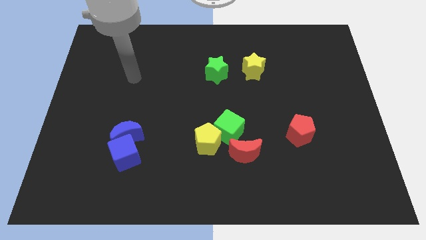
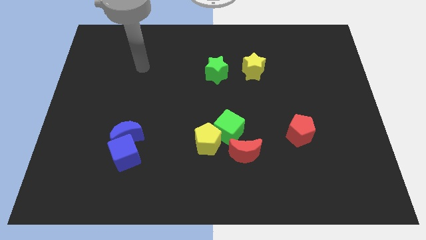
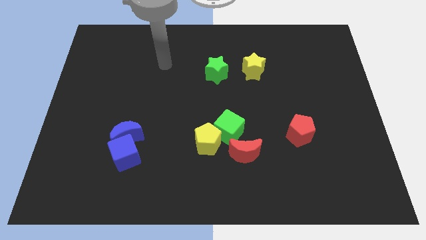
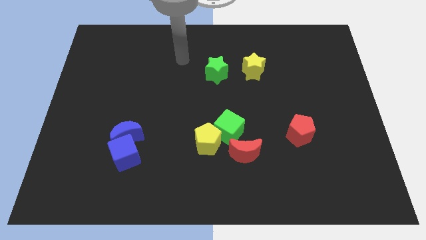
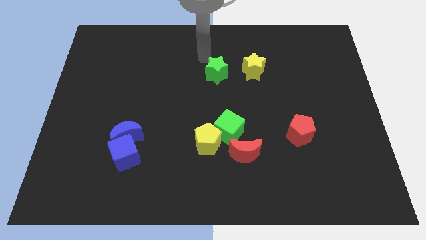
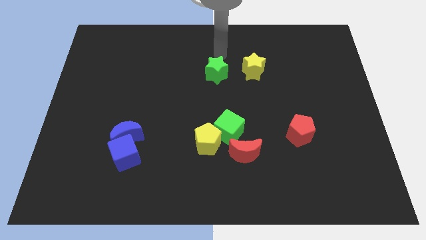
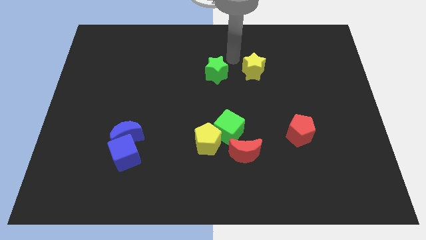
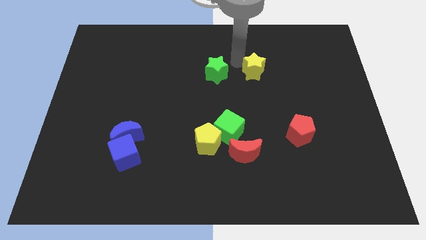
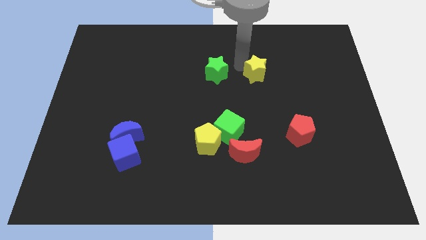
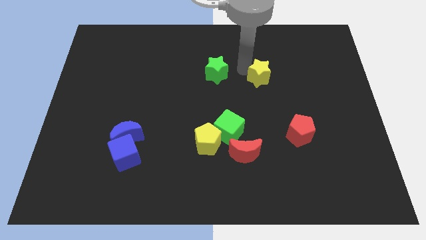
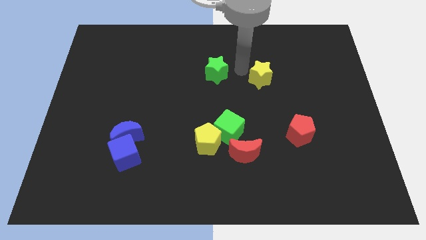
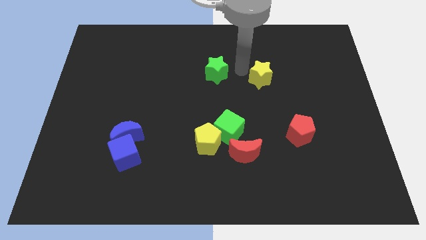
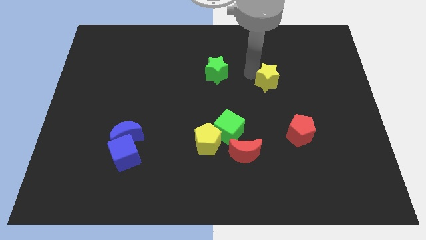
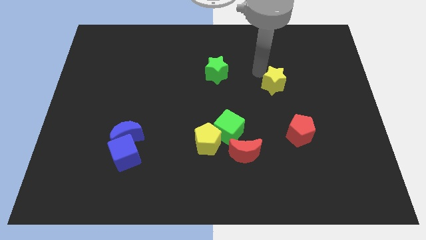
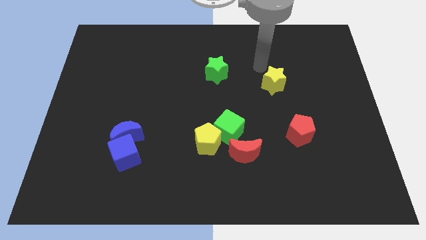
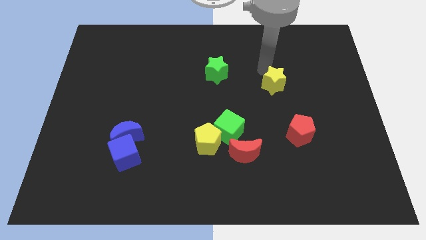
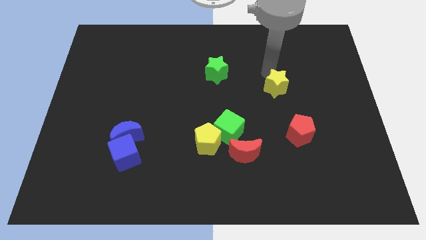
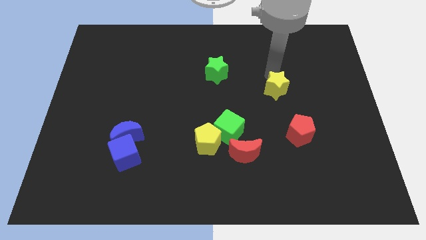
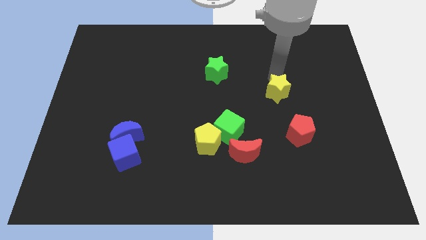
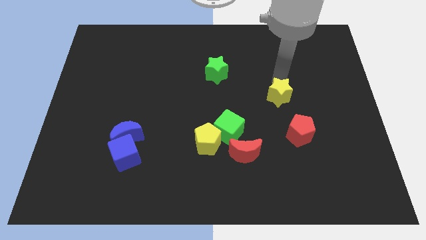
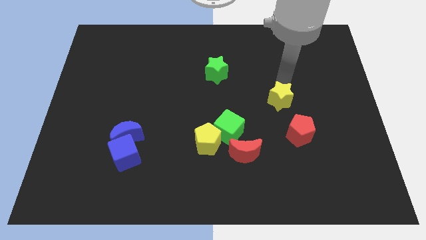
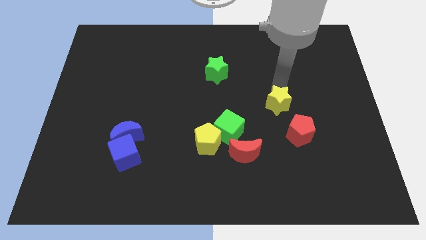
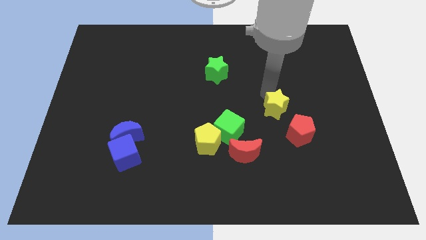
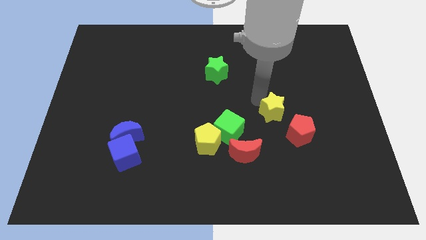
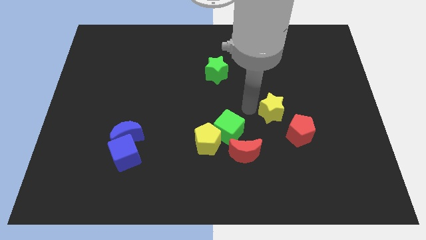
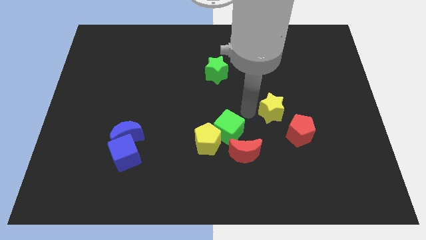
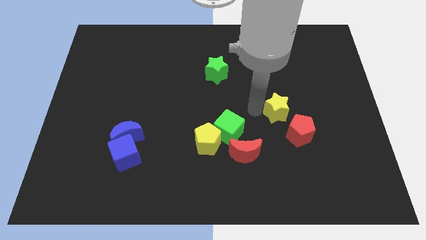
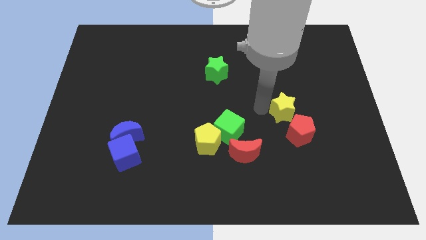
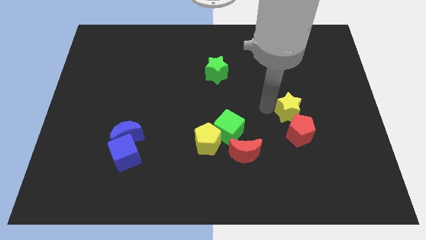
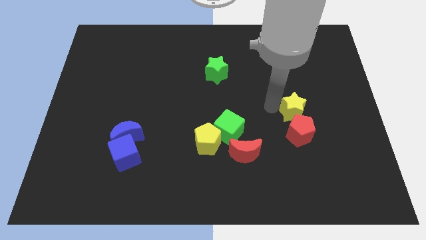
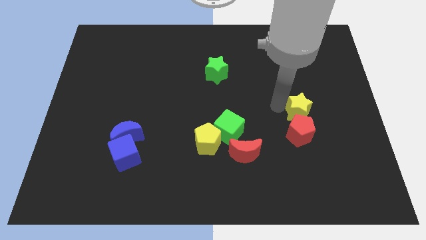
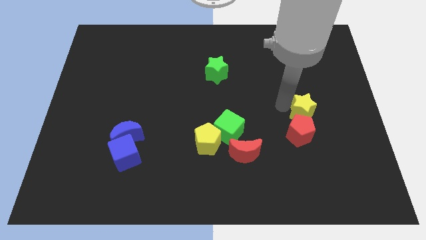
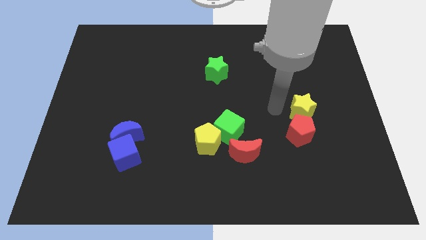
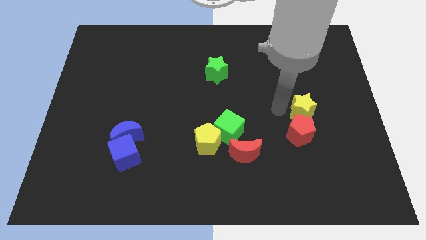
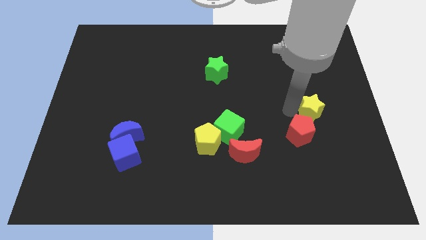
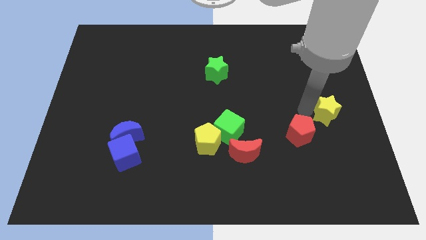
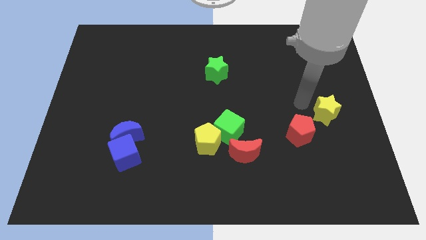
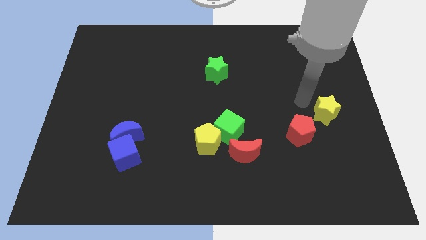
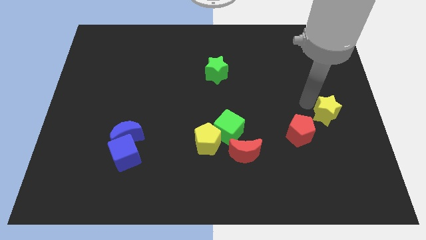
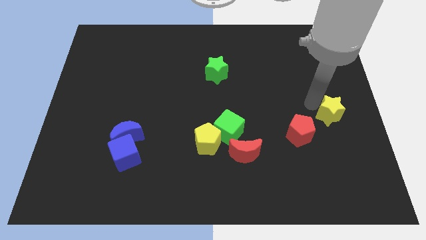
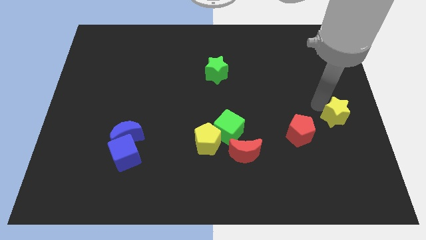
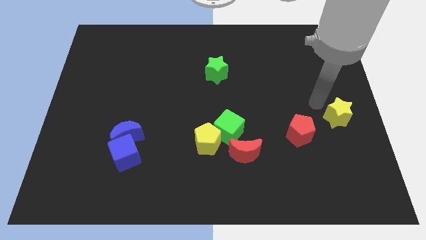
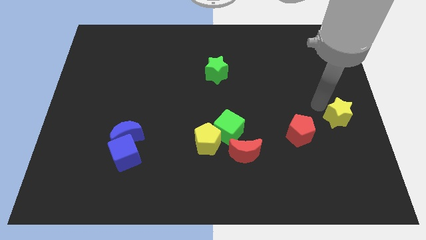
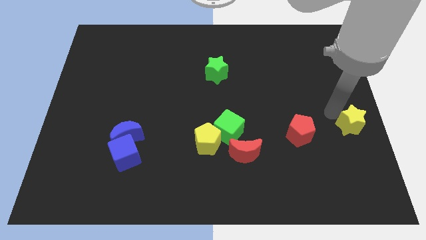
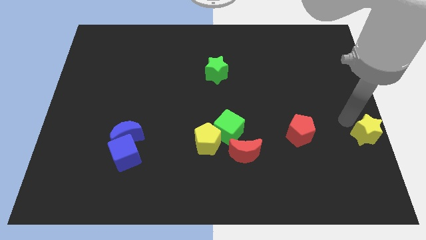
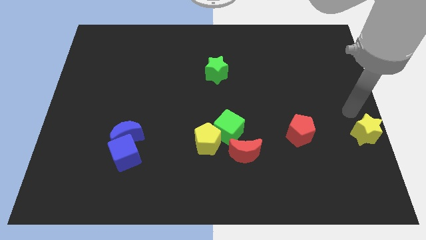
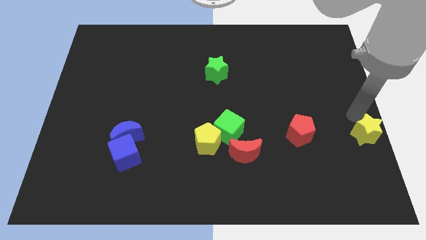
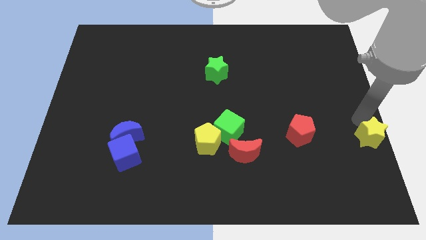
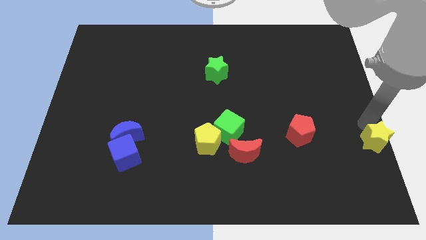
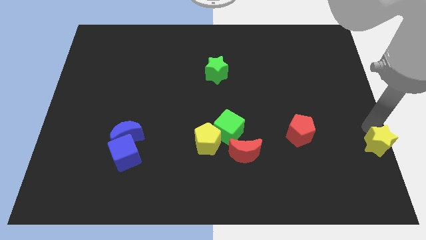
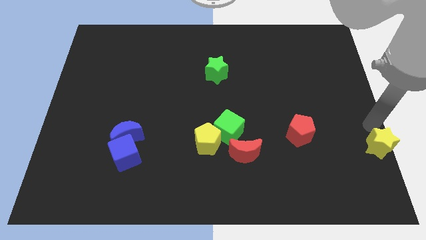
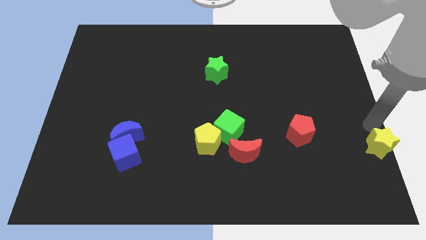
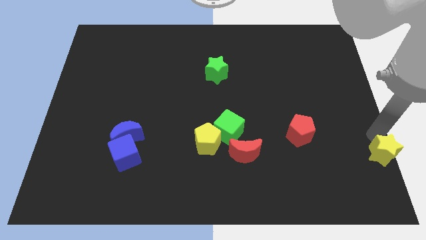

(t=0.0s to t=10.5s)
slide the yellow star to the bottom right corner

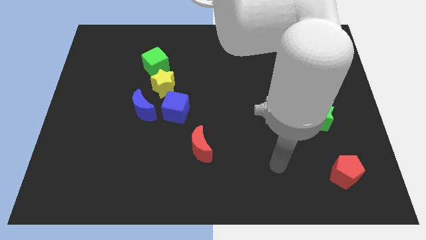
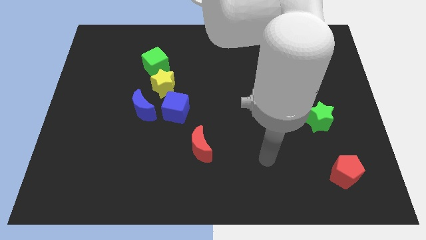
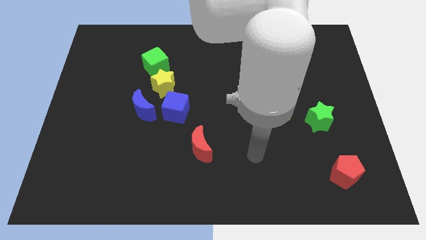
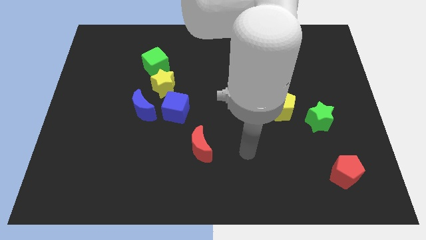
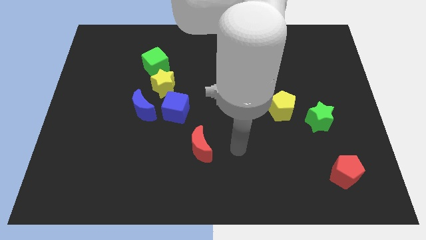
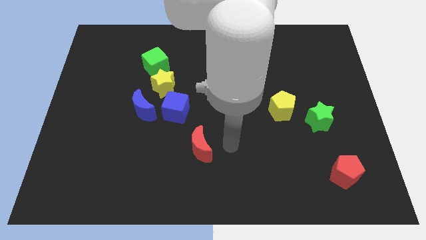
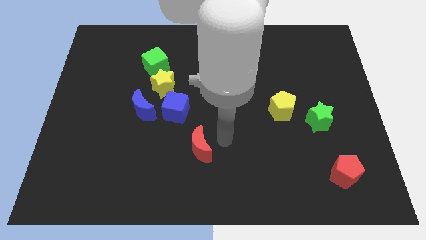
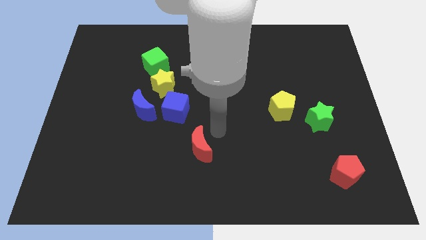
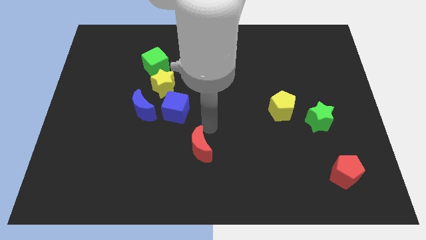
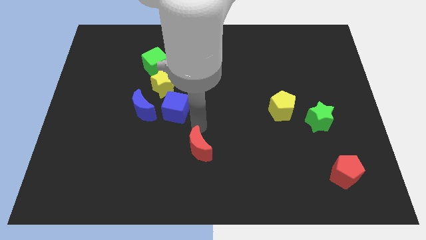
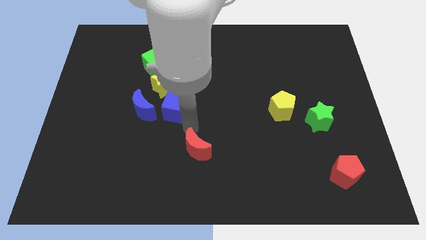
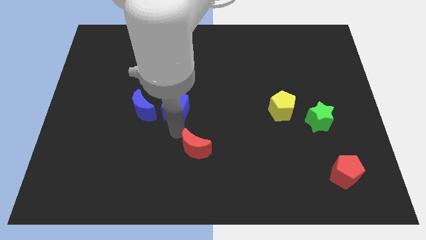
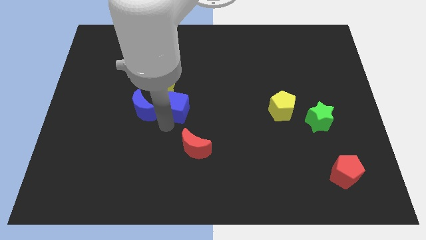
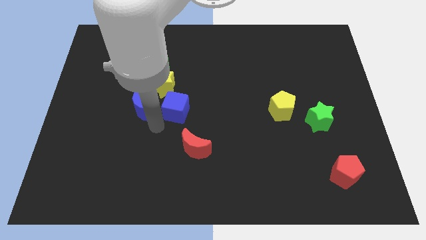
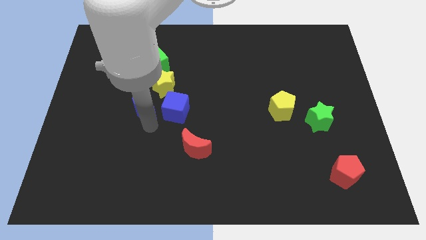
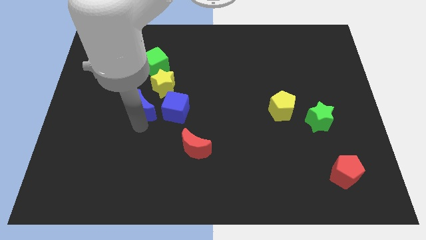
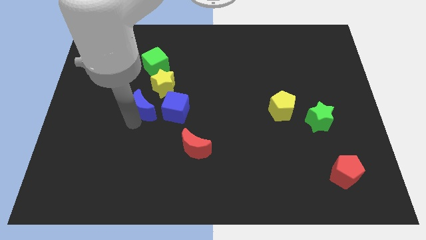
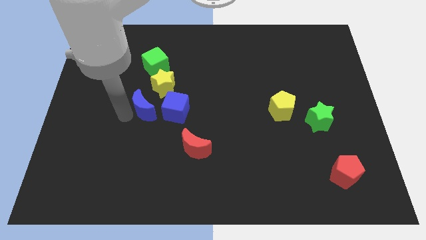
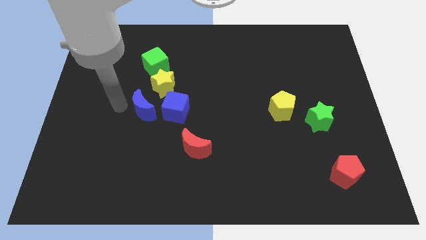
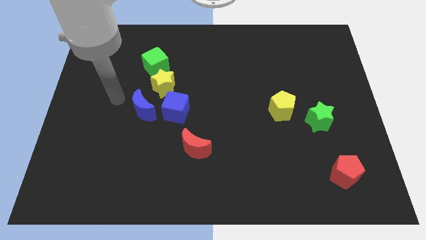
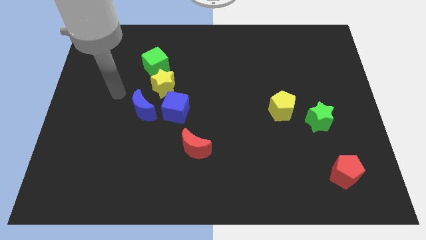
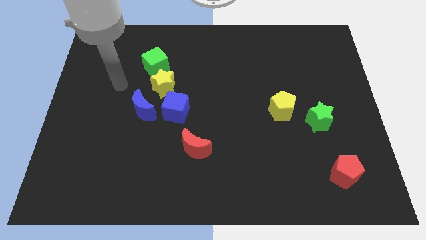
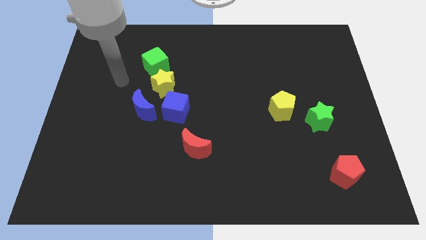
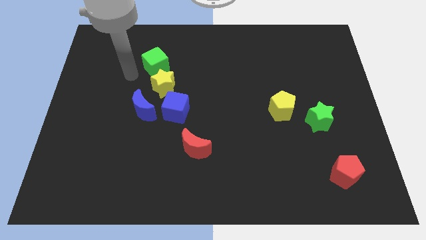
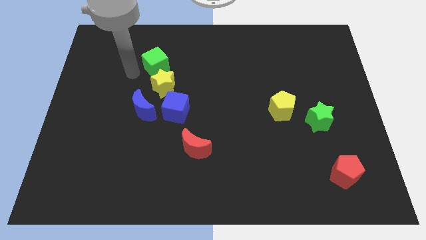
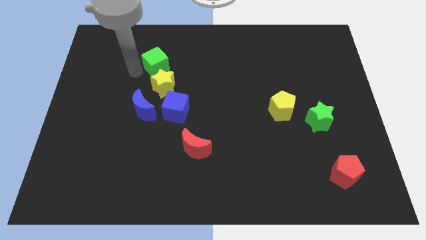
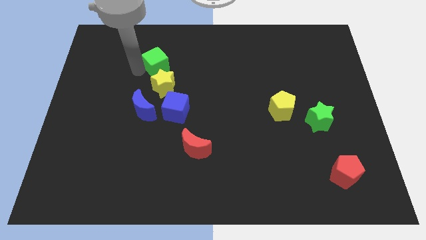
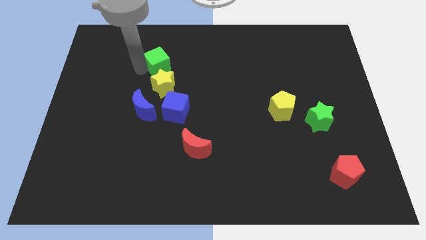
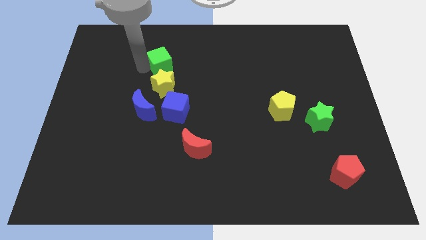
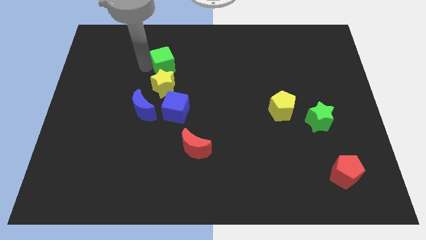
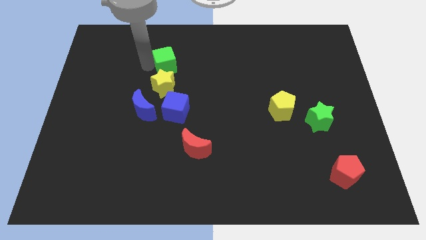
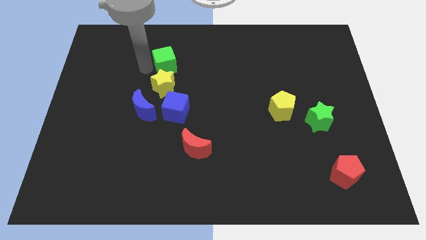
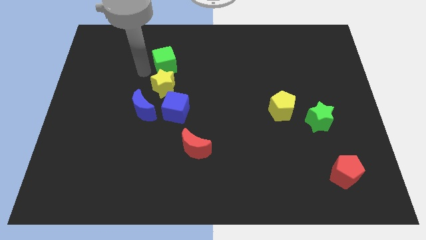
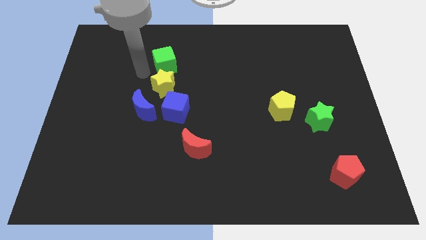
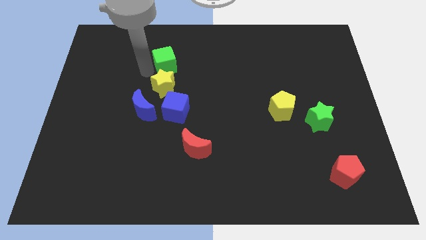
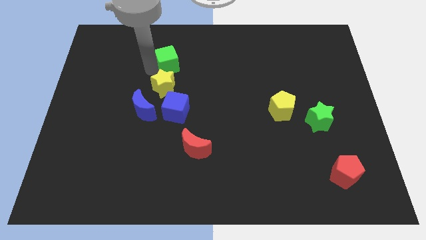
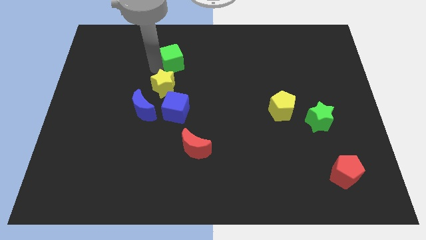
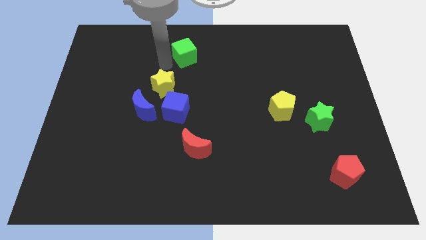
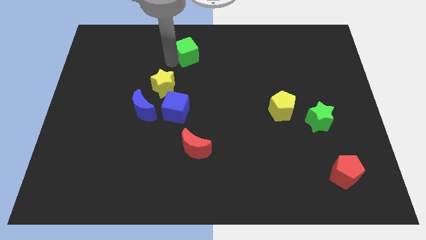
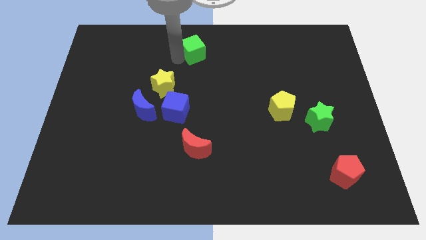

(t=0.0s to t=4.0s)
push the green cube to the top side
